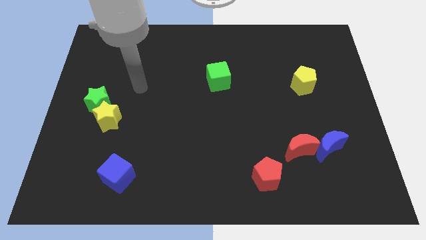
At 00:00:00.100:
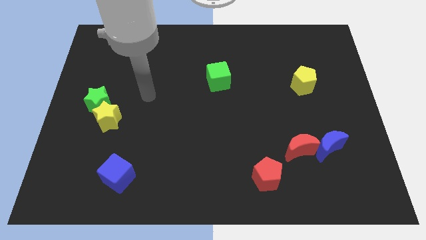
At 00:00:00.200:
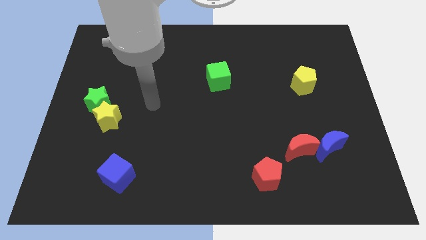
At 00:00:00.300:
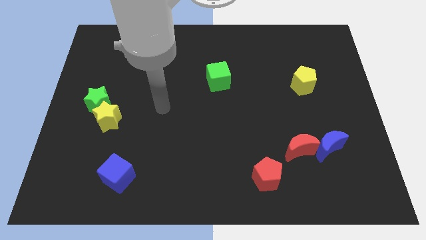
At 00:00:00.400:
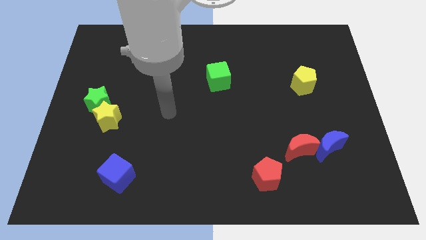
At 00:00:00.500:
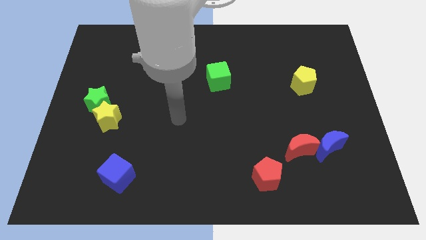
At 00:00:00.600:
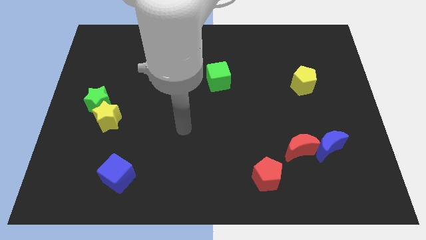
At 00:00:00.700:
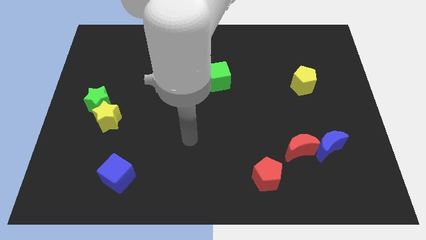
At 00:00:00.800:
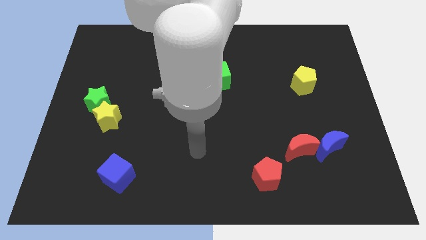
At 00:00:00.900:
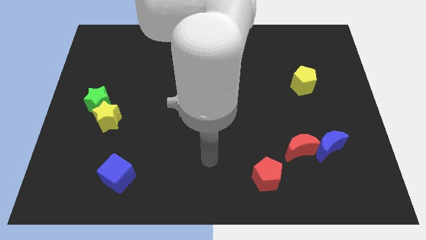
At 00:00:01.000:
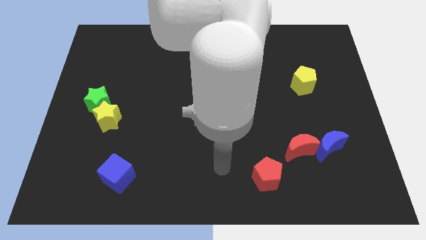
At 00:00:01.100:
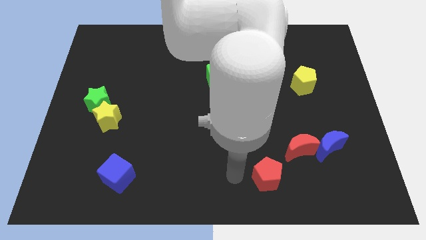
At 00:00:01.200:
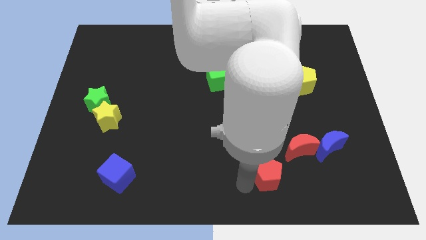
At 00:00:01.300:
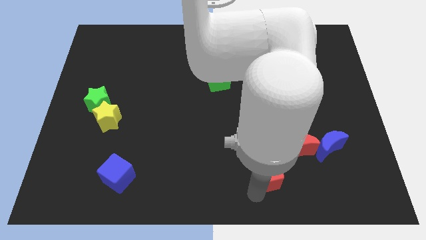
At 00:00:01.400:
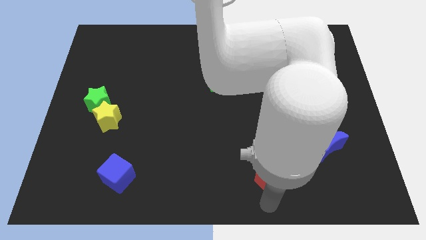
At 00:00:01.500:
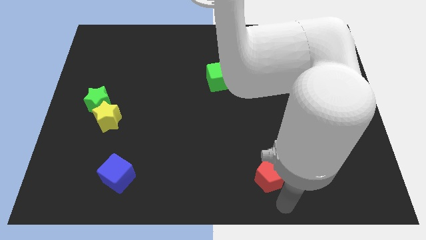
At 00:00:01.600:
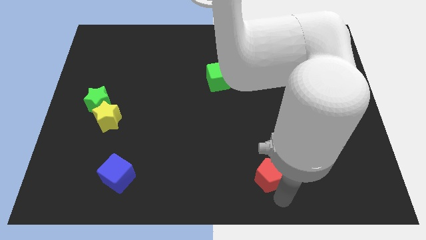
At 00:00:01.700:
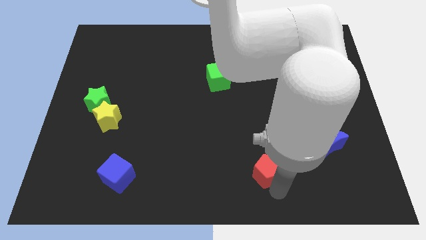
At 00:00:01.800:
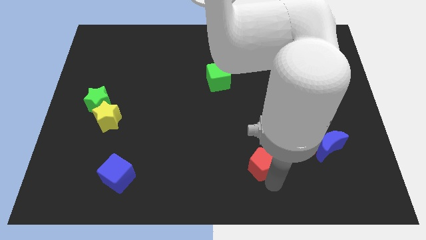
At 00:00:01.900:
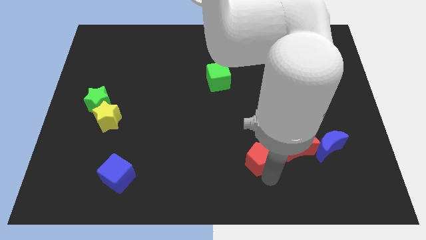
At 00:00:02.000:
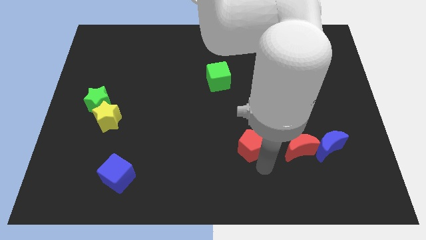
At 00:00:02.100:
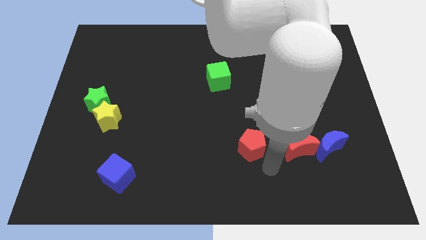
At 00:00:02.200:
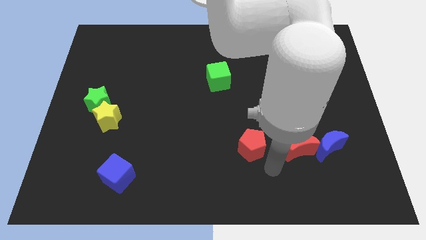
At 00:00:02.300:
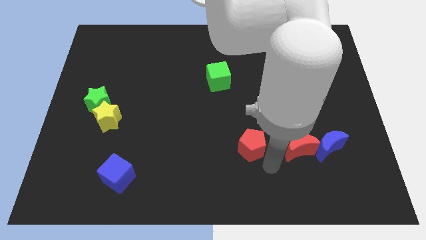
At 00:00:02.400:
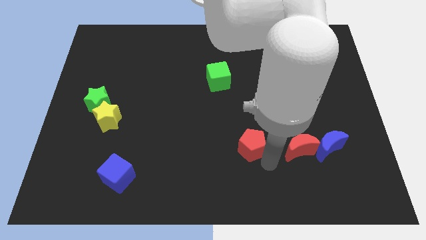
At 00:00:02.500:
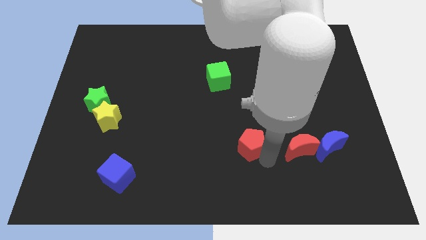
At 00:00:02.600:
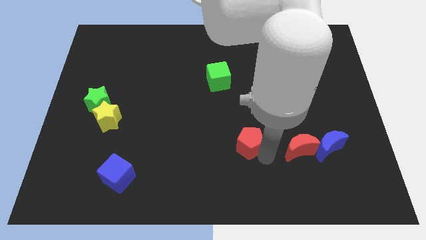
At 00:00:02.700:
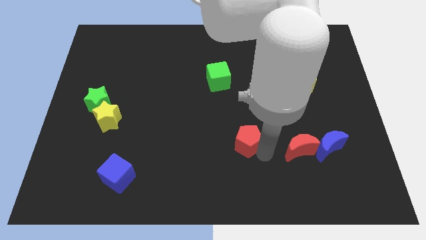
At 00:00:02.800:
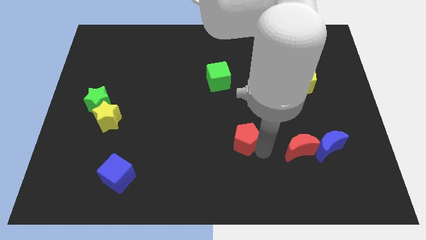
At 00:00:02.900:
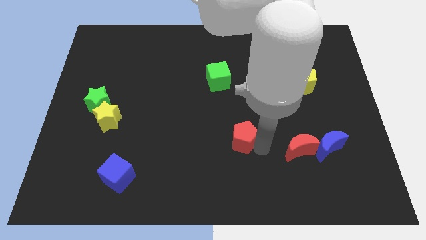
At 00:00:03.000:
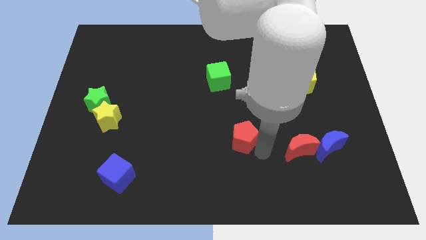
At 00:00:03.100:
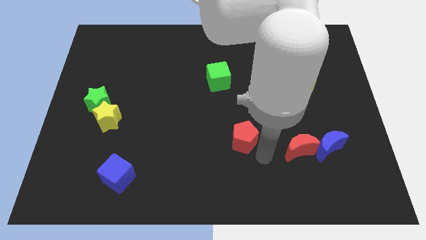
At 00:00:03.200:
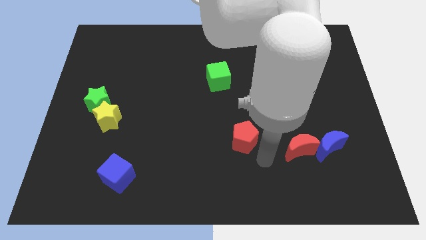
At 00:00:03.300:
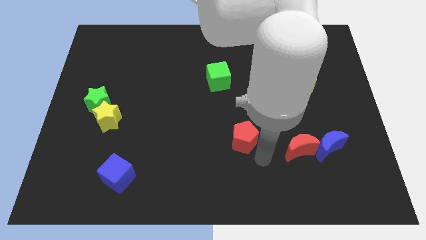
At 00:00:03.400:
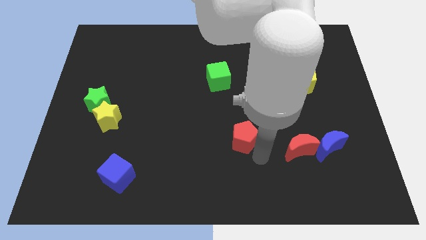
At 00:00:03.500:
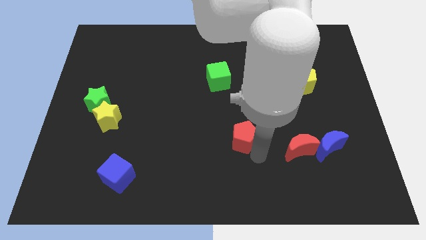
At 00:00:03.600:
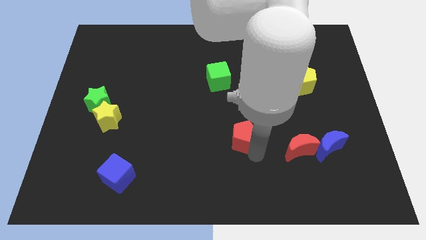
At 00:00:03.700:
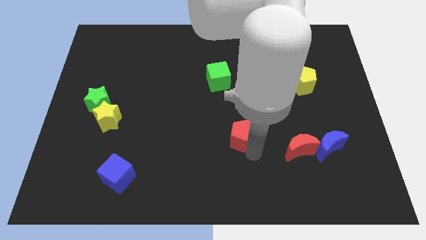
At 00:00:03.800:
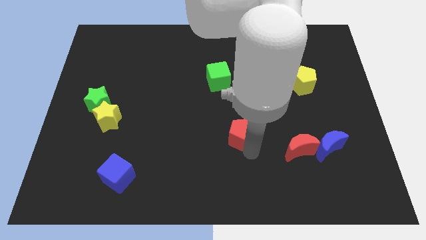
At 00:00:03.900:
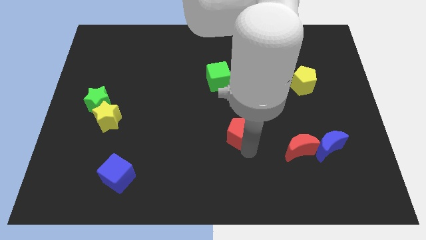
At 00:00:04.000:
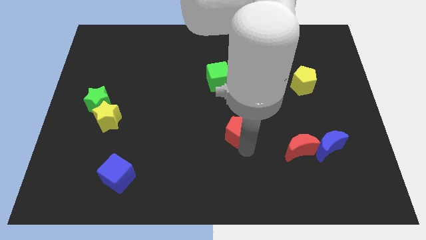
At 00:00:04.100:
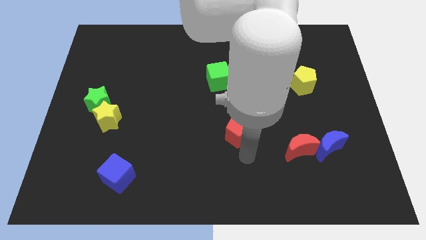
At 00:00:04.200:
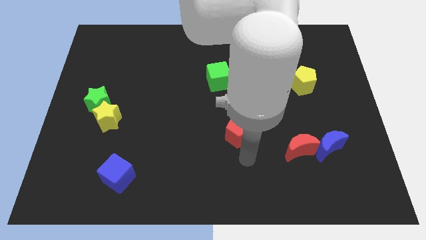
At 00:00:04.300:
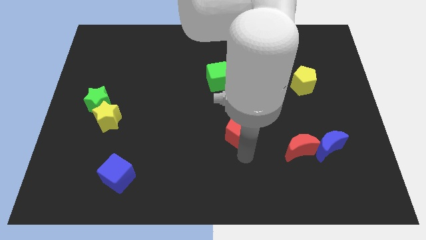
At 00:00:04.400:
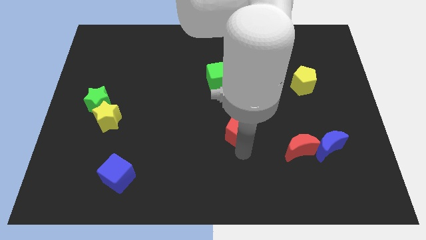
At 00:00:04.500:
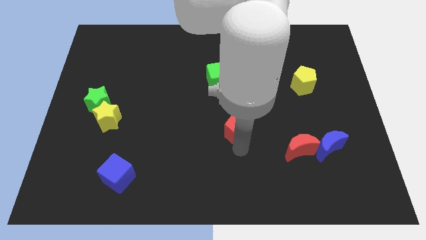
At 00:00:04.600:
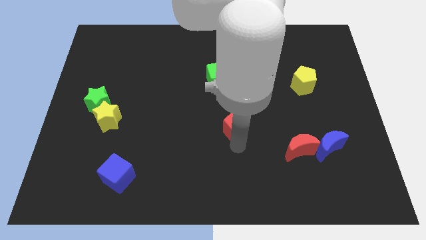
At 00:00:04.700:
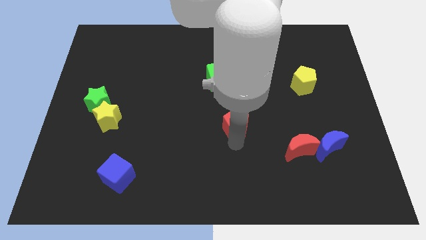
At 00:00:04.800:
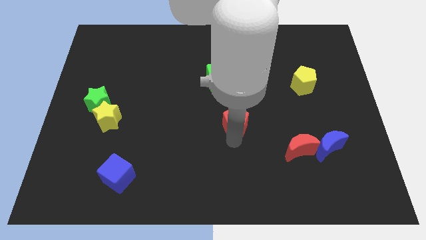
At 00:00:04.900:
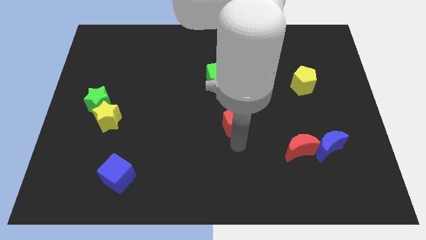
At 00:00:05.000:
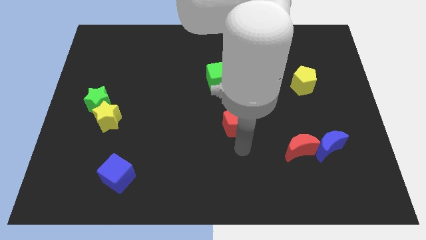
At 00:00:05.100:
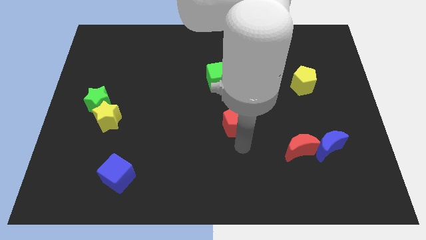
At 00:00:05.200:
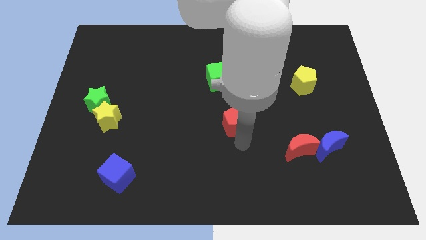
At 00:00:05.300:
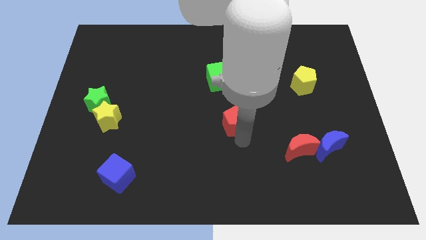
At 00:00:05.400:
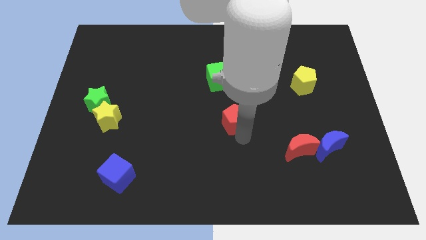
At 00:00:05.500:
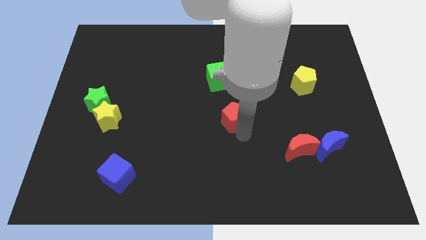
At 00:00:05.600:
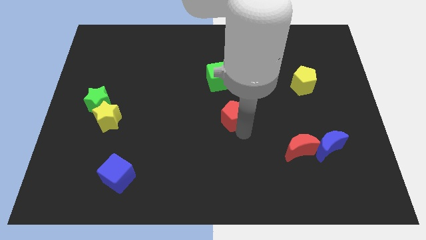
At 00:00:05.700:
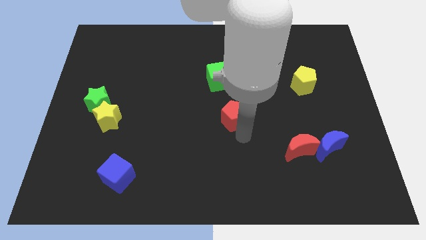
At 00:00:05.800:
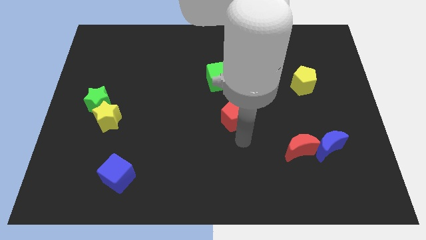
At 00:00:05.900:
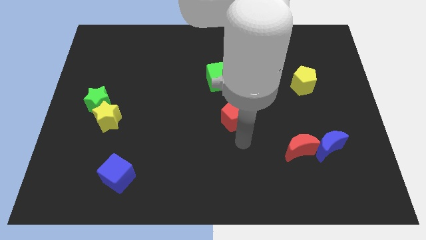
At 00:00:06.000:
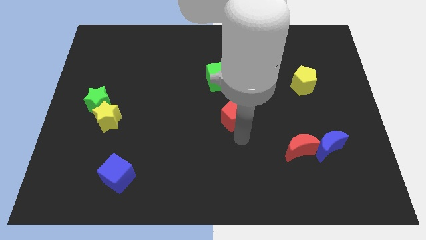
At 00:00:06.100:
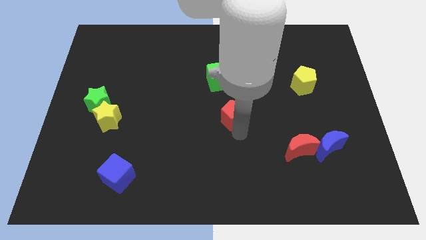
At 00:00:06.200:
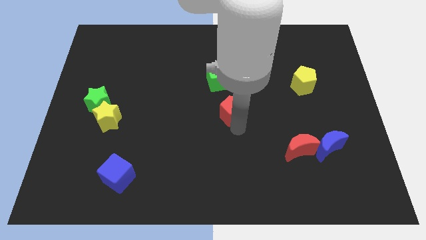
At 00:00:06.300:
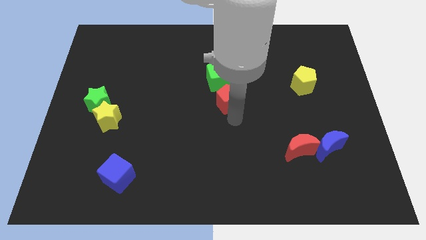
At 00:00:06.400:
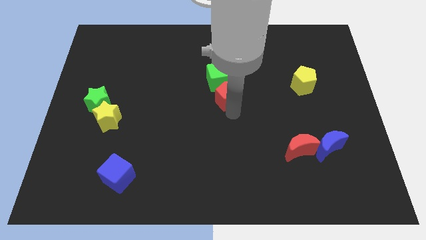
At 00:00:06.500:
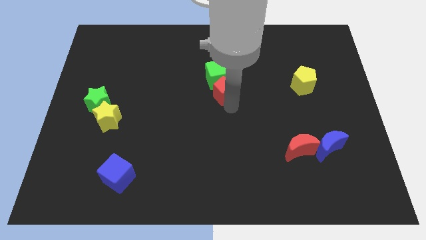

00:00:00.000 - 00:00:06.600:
push the red pentagon towards the green cube

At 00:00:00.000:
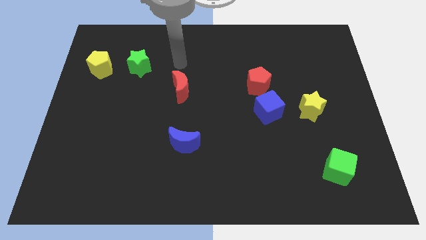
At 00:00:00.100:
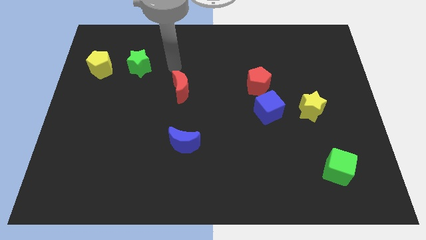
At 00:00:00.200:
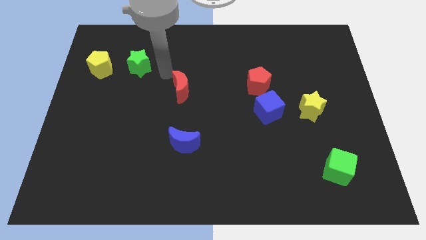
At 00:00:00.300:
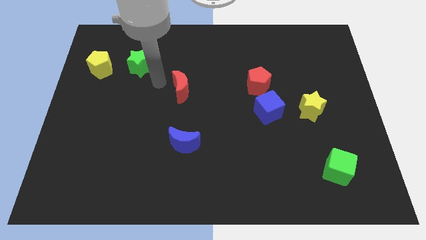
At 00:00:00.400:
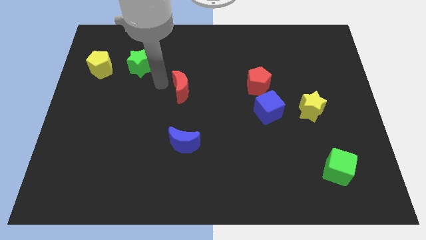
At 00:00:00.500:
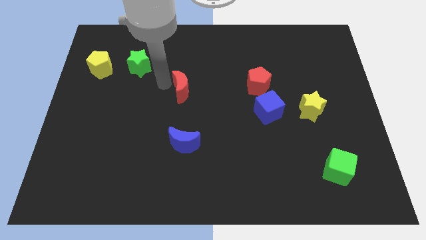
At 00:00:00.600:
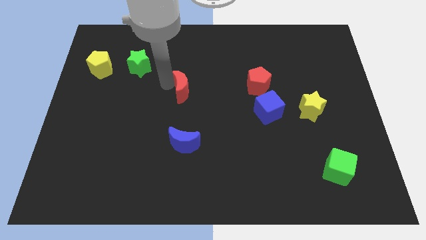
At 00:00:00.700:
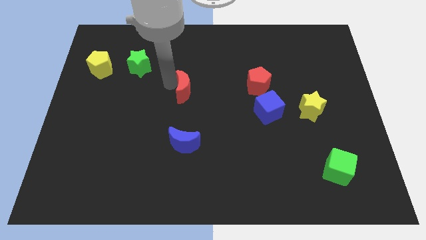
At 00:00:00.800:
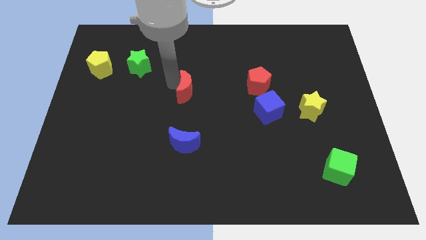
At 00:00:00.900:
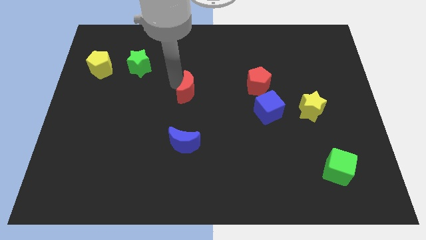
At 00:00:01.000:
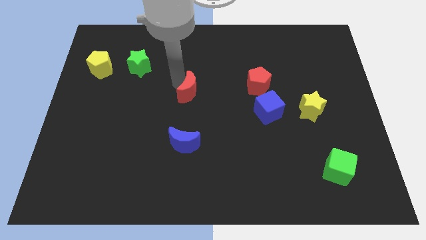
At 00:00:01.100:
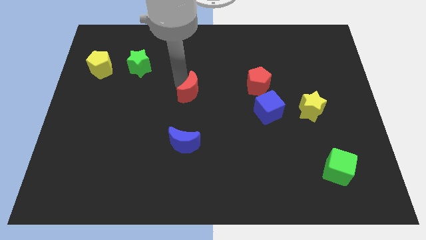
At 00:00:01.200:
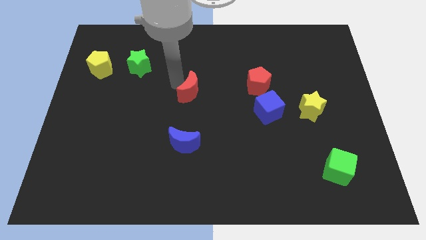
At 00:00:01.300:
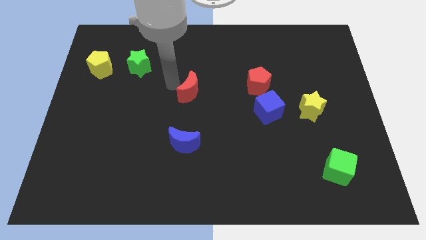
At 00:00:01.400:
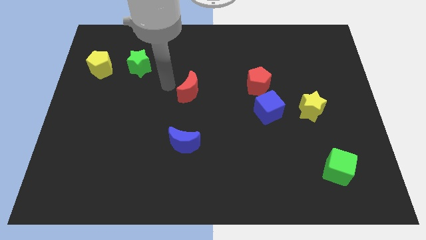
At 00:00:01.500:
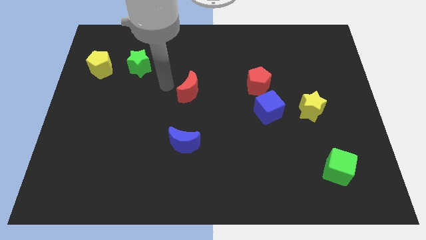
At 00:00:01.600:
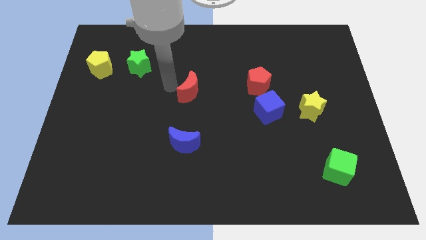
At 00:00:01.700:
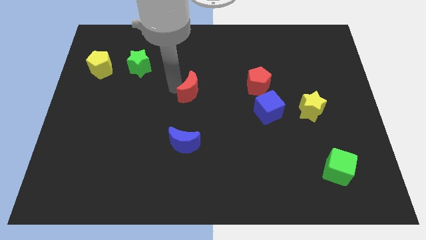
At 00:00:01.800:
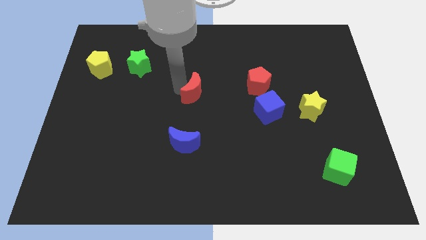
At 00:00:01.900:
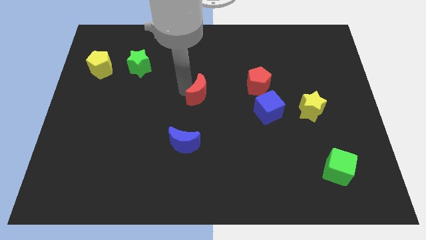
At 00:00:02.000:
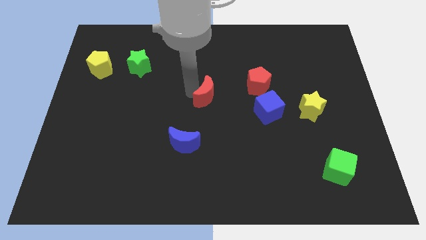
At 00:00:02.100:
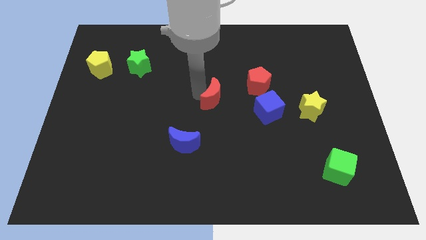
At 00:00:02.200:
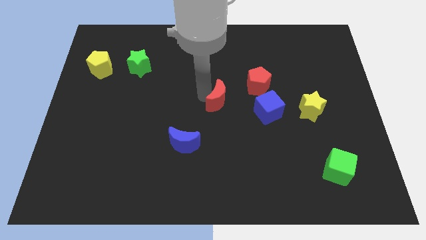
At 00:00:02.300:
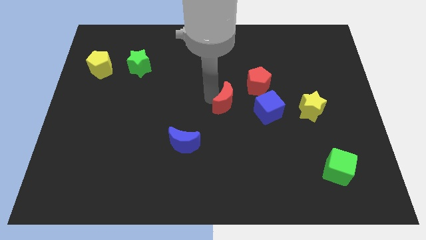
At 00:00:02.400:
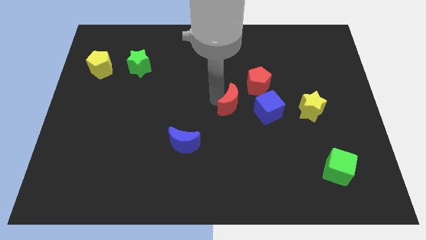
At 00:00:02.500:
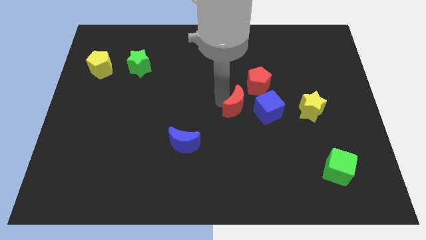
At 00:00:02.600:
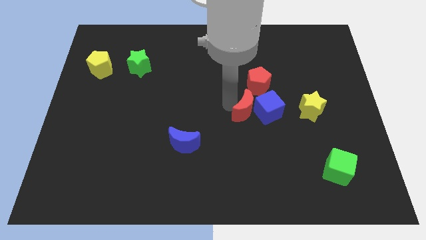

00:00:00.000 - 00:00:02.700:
slide the red moon next to the blue cube
